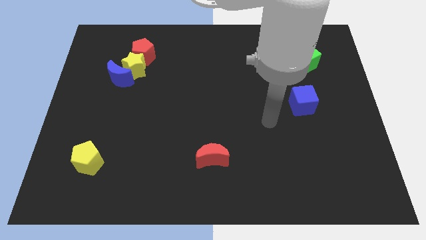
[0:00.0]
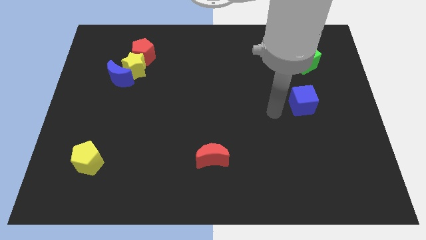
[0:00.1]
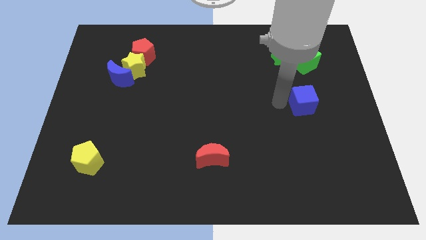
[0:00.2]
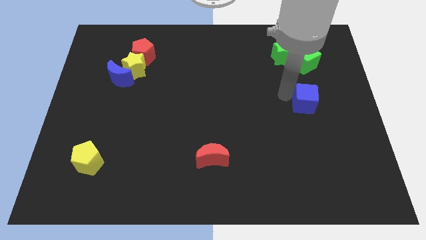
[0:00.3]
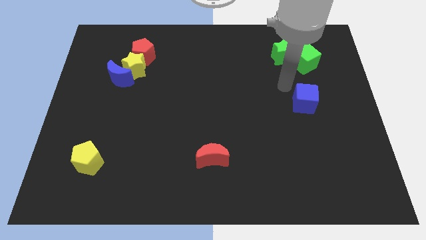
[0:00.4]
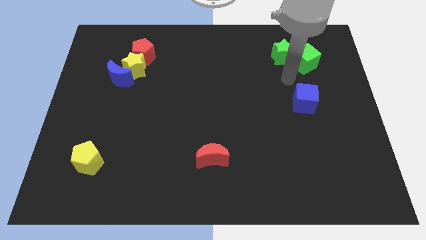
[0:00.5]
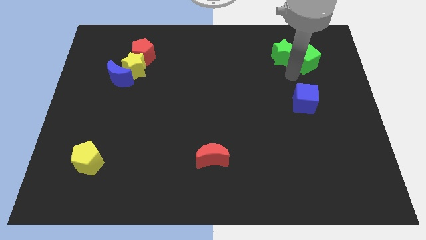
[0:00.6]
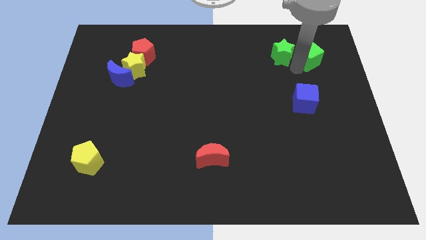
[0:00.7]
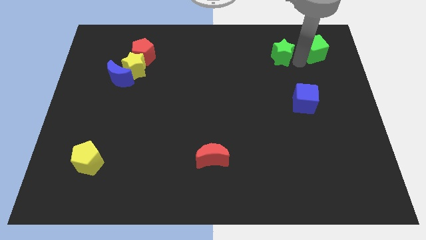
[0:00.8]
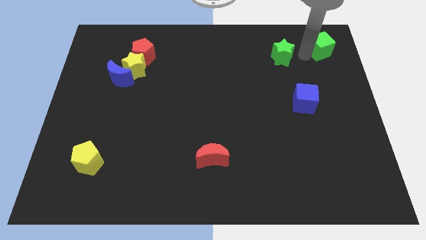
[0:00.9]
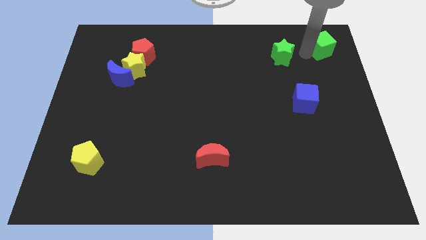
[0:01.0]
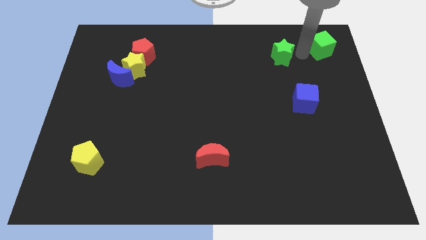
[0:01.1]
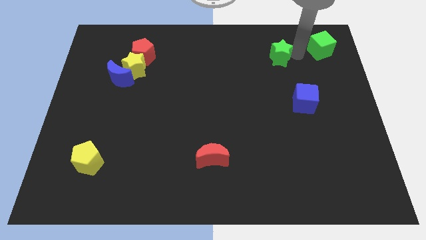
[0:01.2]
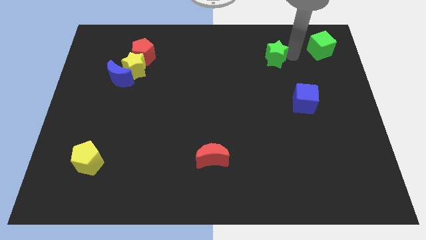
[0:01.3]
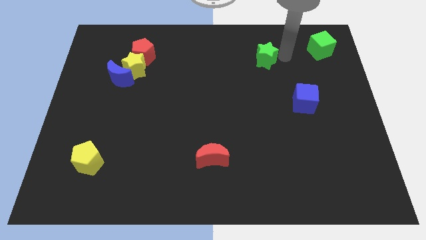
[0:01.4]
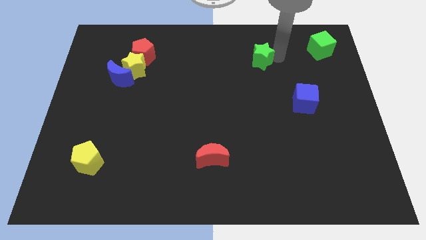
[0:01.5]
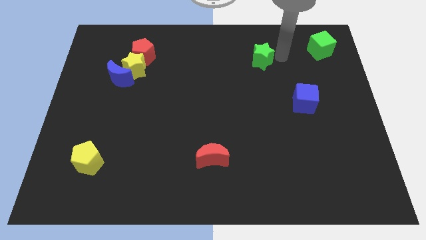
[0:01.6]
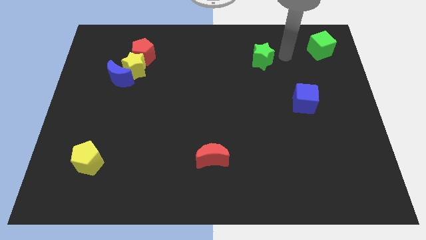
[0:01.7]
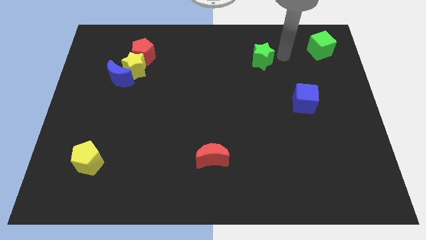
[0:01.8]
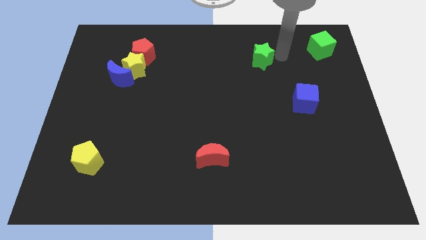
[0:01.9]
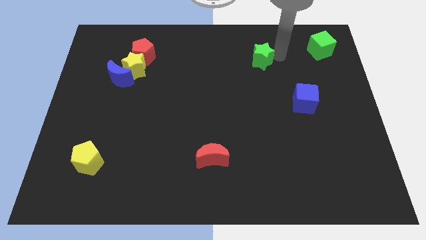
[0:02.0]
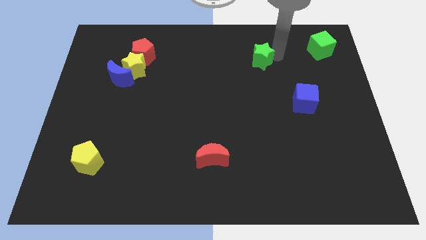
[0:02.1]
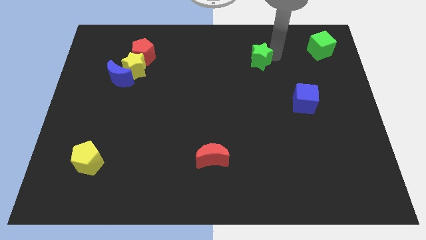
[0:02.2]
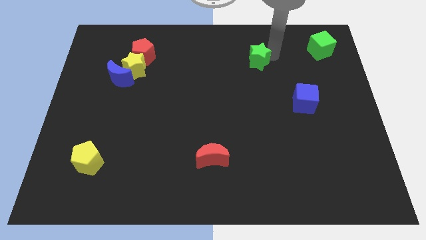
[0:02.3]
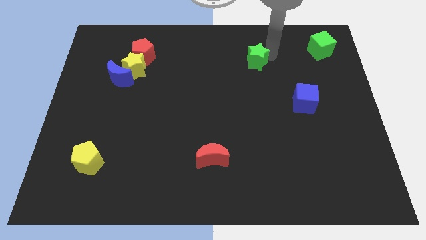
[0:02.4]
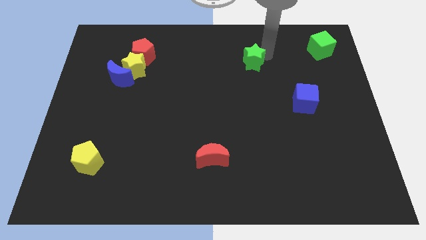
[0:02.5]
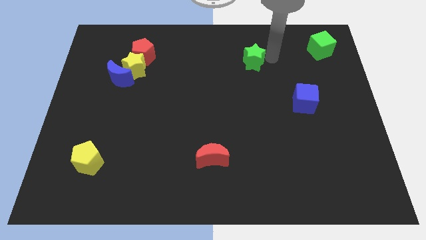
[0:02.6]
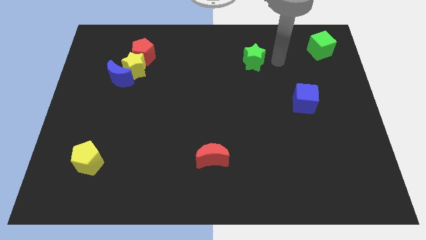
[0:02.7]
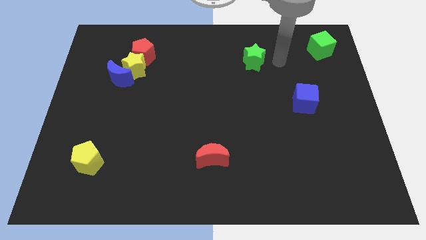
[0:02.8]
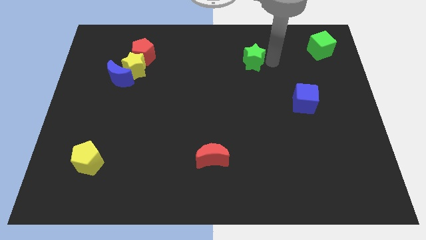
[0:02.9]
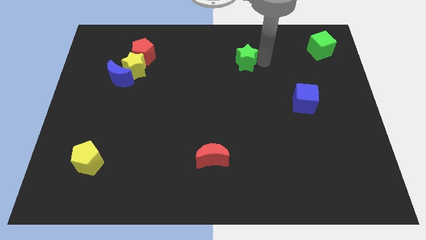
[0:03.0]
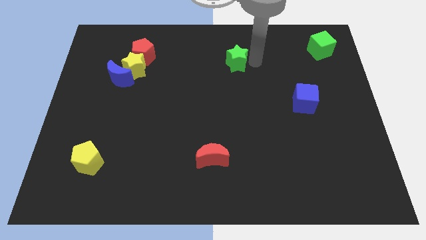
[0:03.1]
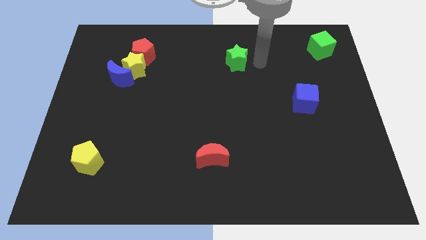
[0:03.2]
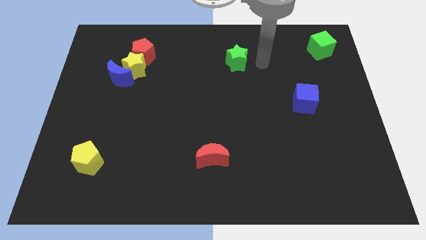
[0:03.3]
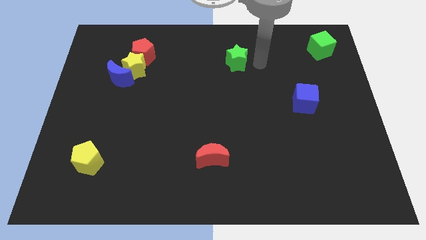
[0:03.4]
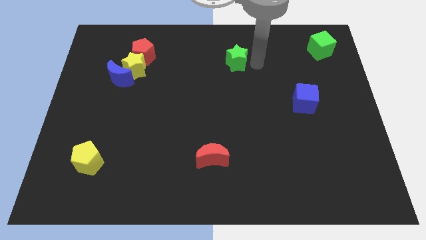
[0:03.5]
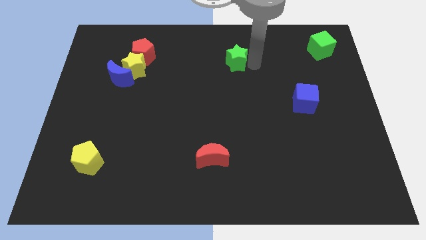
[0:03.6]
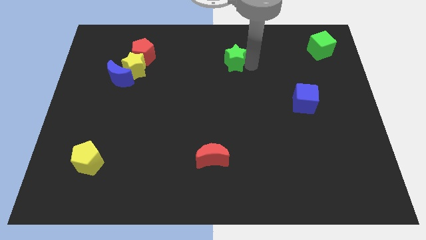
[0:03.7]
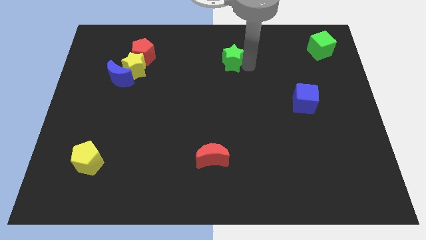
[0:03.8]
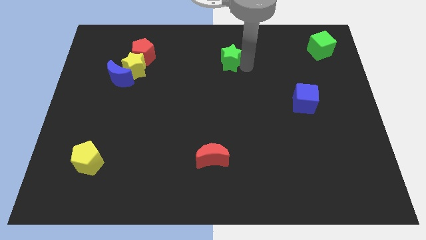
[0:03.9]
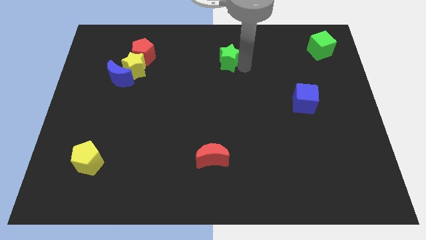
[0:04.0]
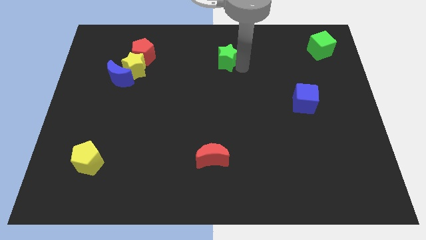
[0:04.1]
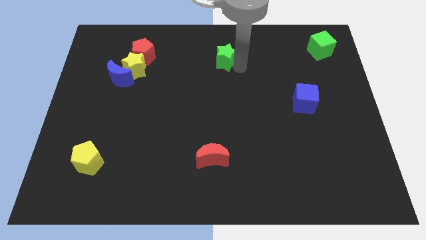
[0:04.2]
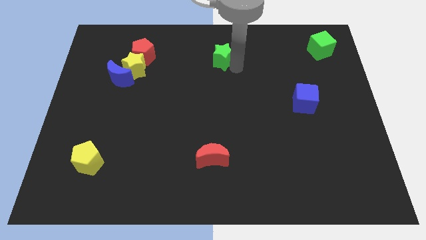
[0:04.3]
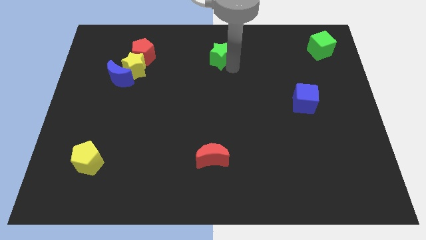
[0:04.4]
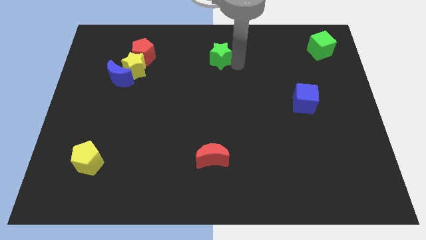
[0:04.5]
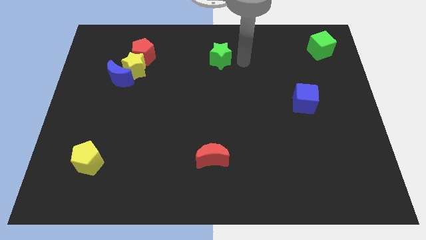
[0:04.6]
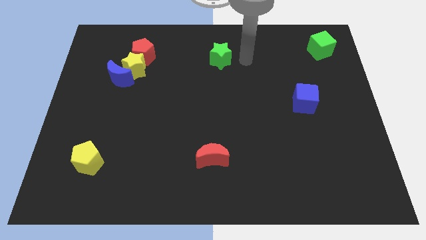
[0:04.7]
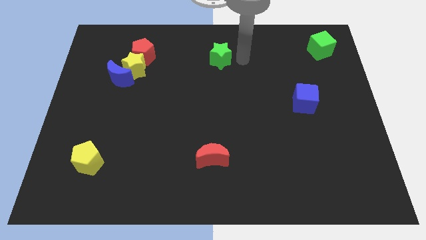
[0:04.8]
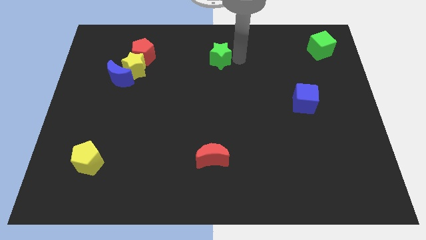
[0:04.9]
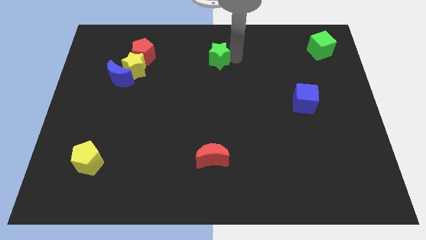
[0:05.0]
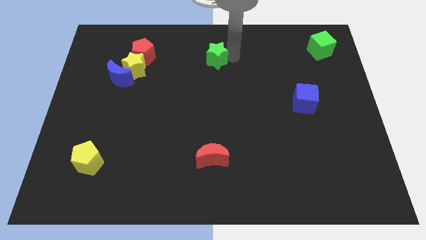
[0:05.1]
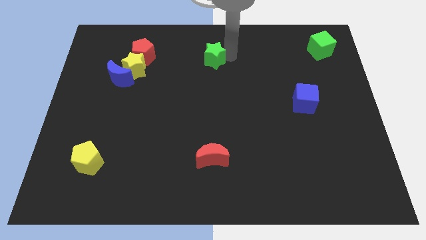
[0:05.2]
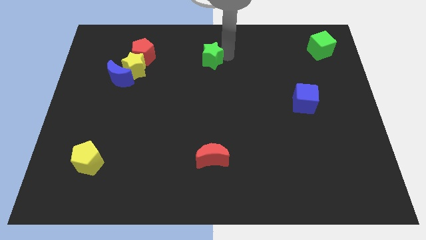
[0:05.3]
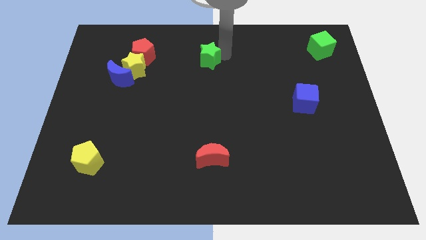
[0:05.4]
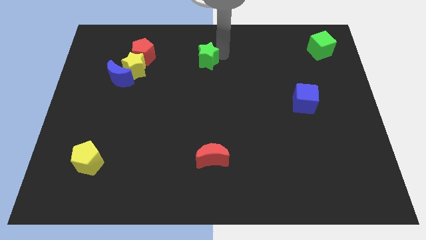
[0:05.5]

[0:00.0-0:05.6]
push the green star to the left

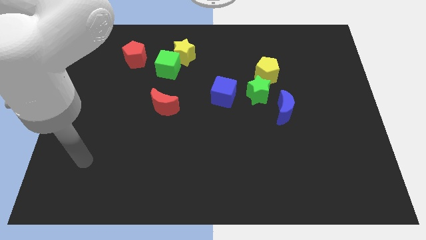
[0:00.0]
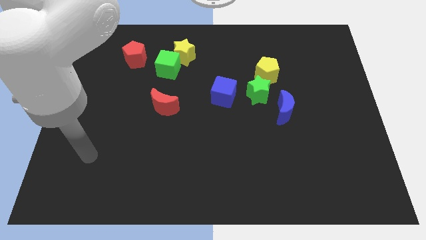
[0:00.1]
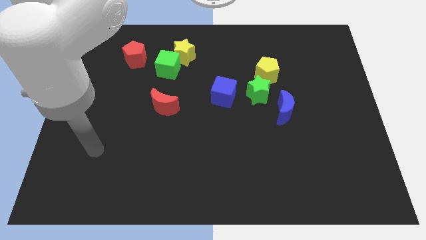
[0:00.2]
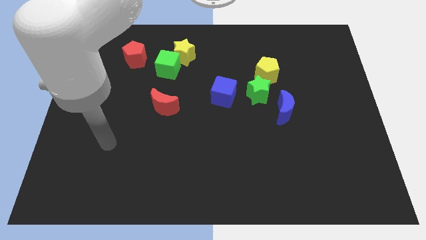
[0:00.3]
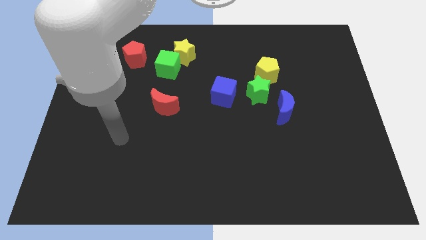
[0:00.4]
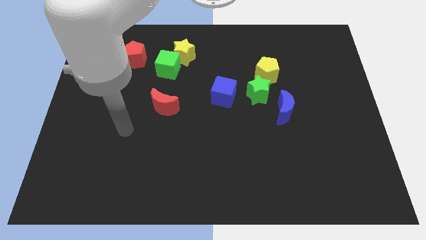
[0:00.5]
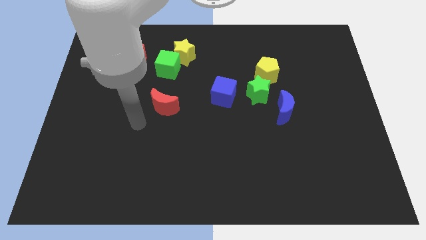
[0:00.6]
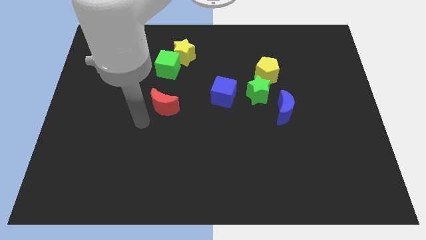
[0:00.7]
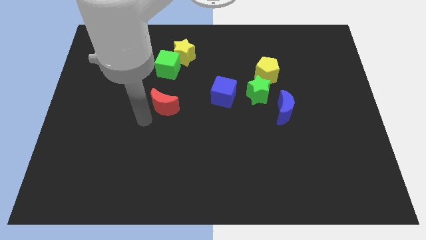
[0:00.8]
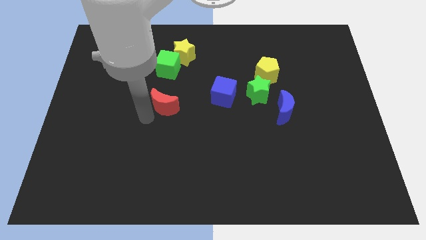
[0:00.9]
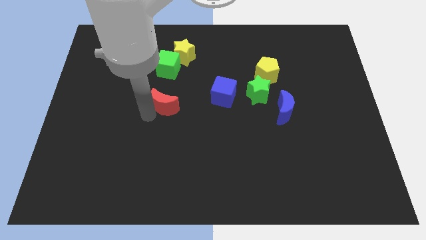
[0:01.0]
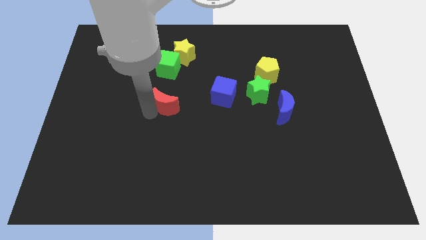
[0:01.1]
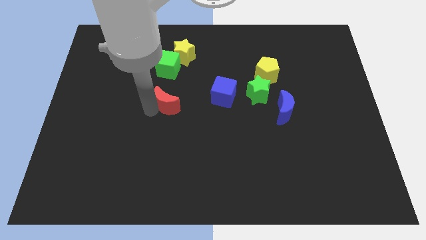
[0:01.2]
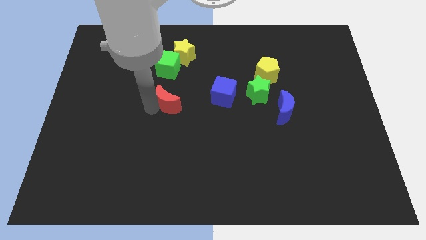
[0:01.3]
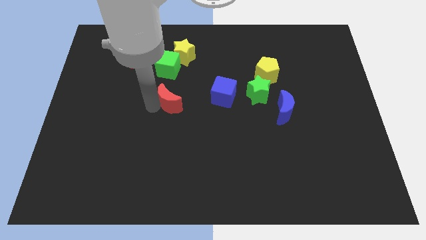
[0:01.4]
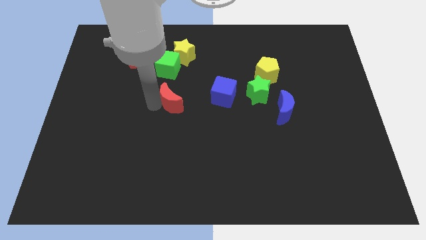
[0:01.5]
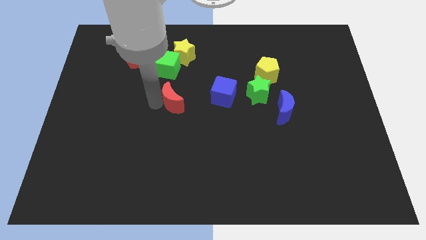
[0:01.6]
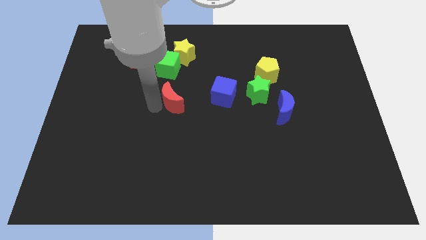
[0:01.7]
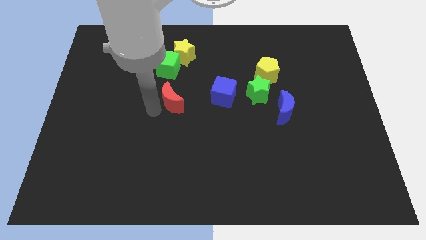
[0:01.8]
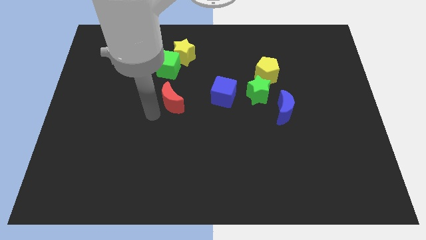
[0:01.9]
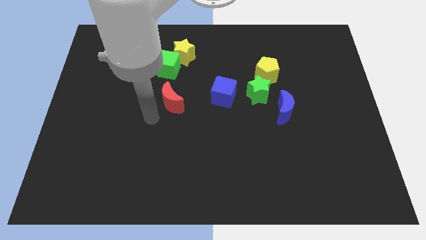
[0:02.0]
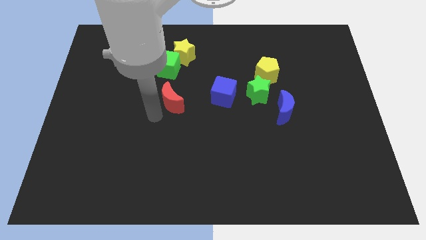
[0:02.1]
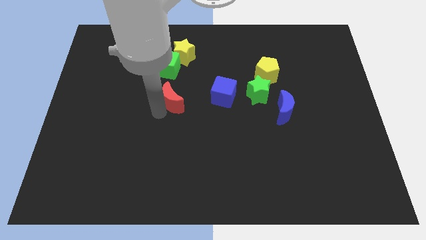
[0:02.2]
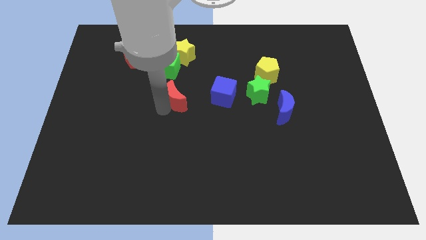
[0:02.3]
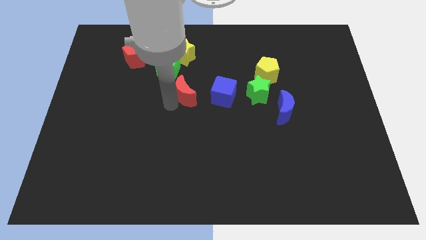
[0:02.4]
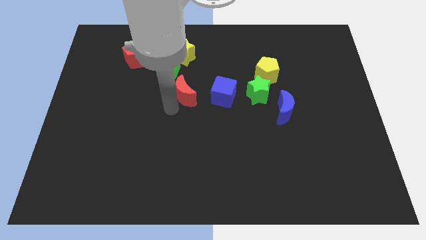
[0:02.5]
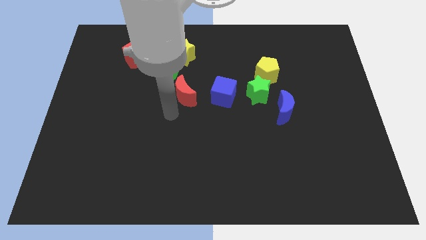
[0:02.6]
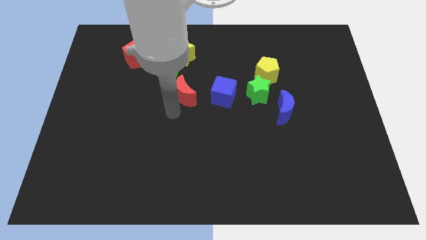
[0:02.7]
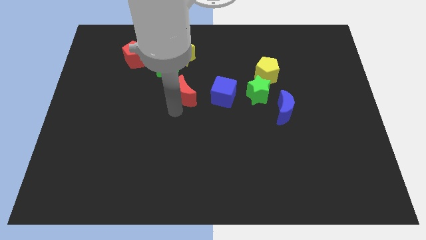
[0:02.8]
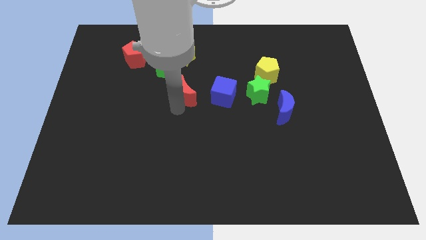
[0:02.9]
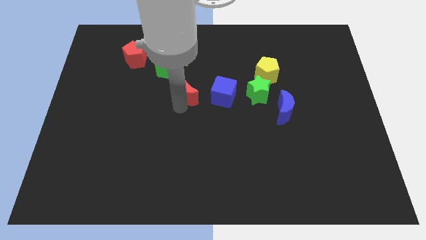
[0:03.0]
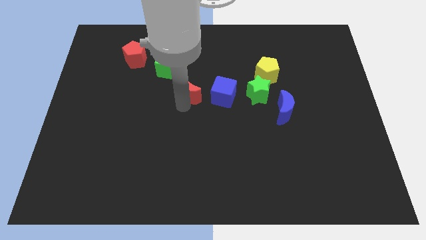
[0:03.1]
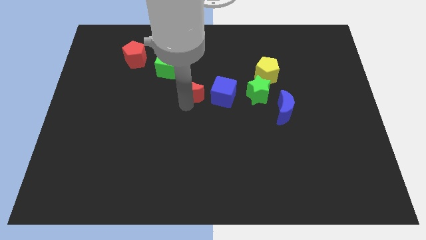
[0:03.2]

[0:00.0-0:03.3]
push the red moon up and then right a little bit
